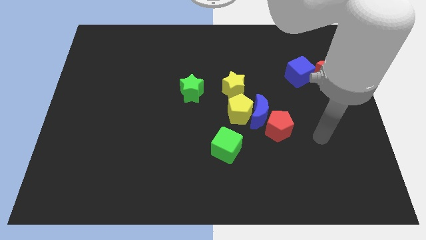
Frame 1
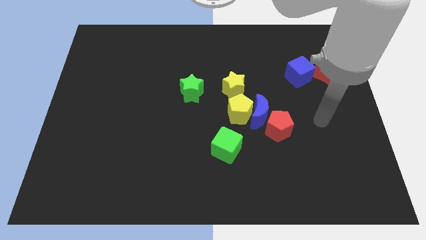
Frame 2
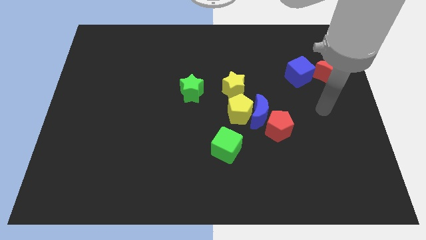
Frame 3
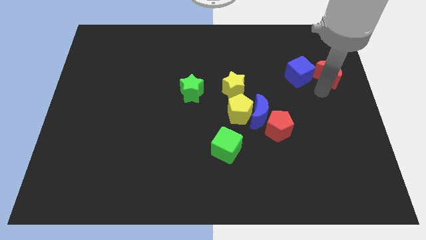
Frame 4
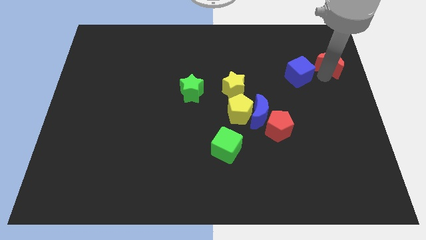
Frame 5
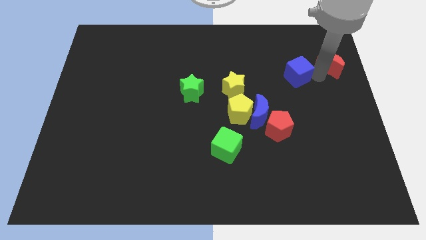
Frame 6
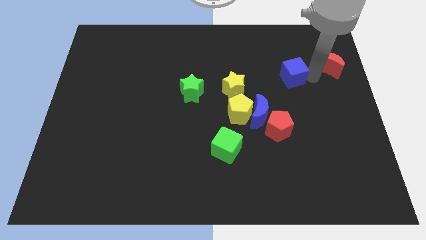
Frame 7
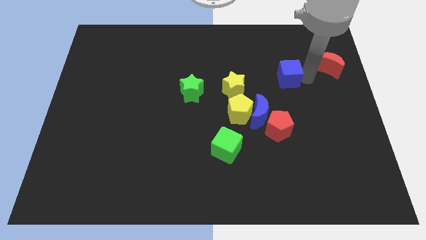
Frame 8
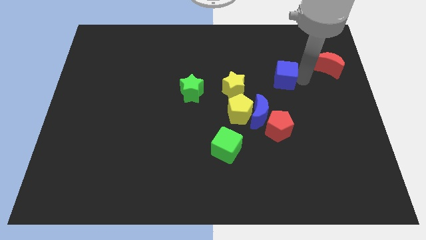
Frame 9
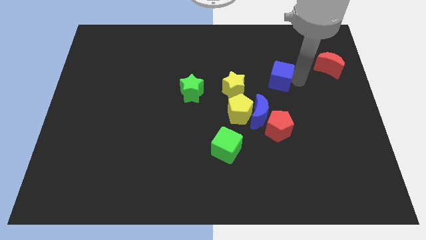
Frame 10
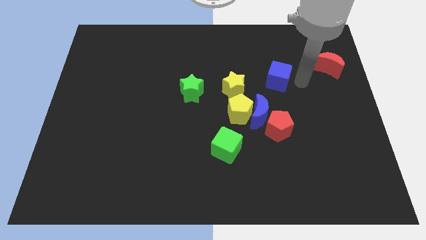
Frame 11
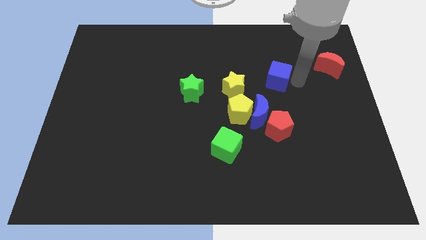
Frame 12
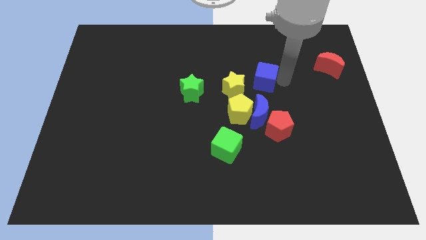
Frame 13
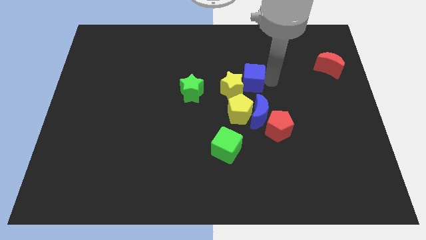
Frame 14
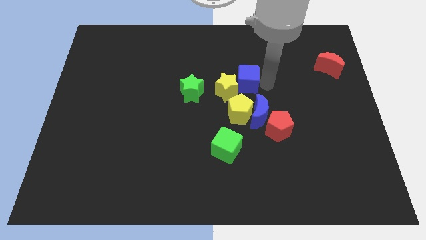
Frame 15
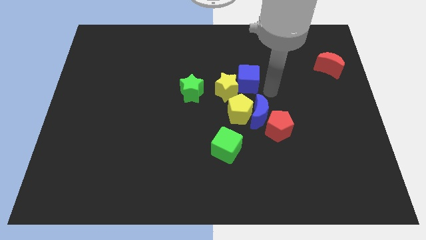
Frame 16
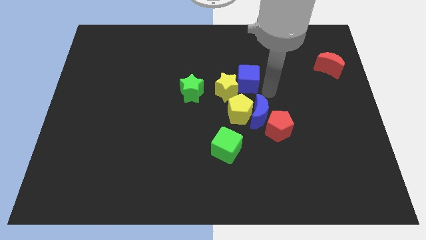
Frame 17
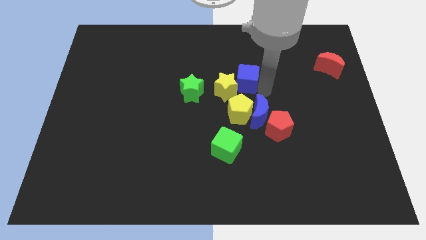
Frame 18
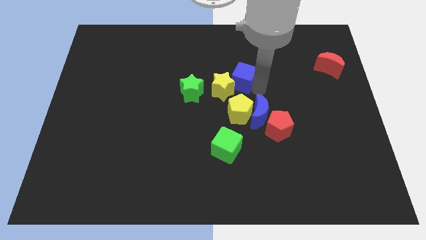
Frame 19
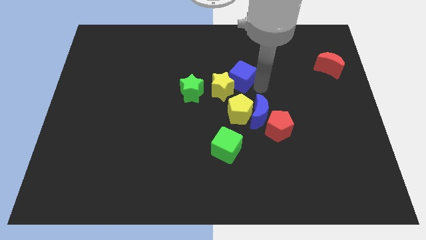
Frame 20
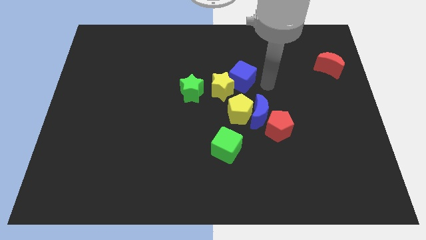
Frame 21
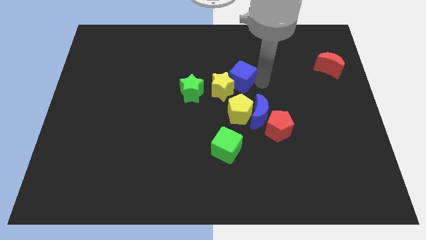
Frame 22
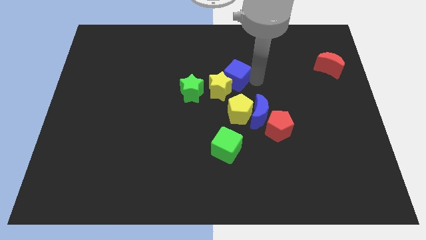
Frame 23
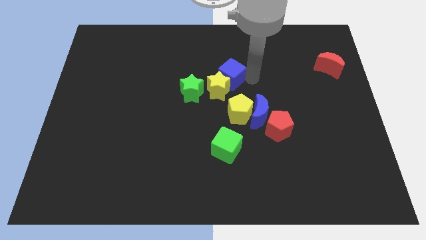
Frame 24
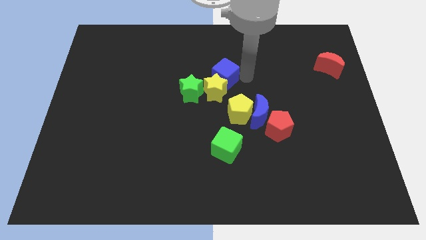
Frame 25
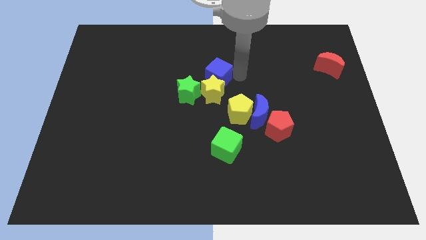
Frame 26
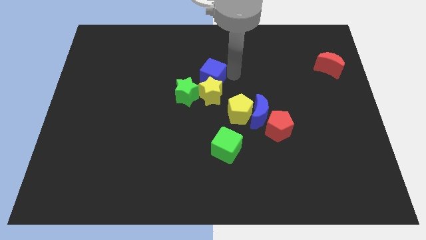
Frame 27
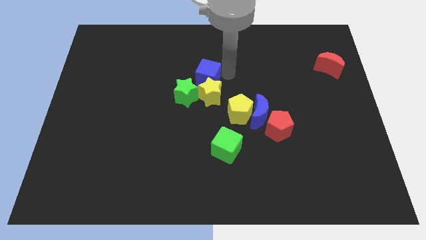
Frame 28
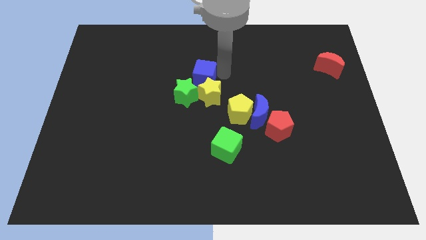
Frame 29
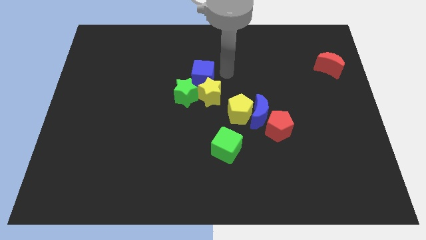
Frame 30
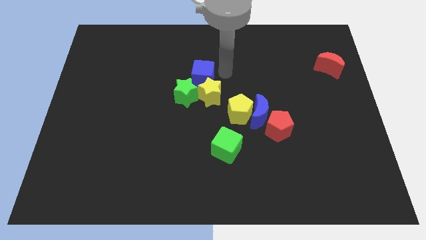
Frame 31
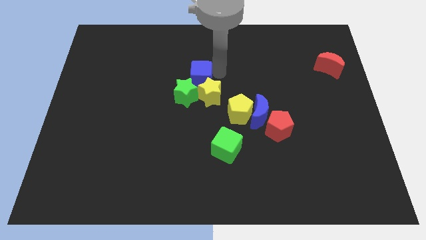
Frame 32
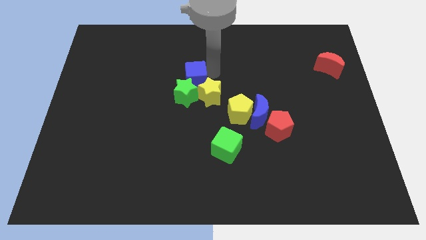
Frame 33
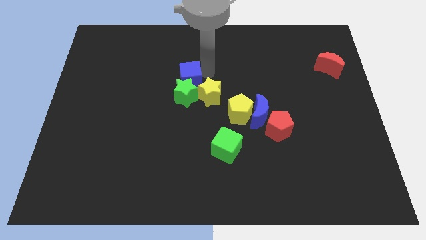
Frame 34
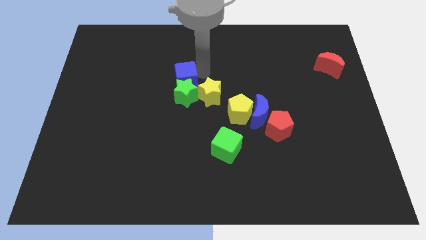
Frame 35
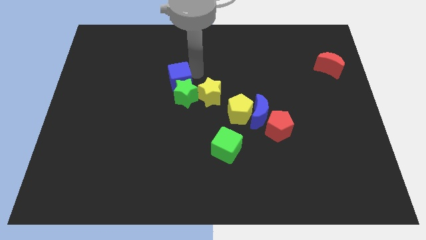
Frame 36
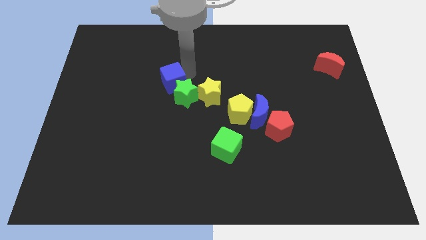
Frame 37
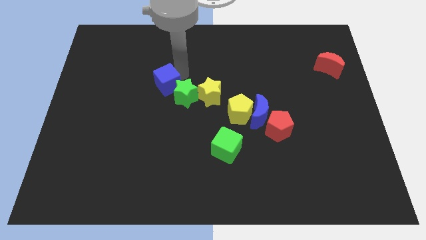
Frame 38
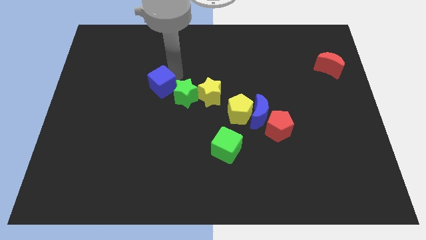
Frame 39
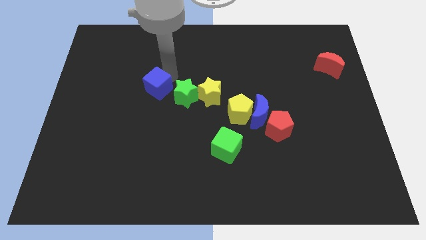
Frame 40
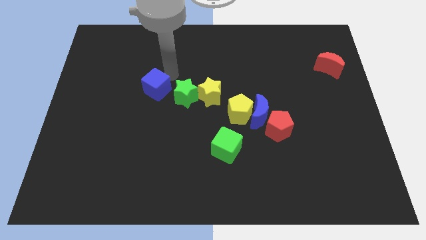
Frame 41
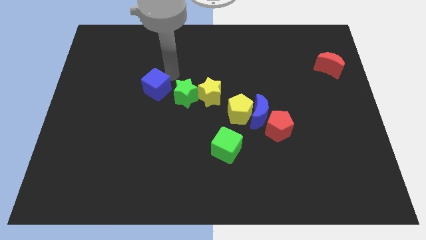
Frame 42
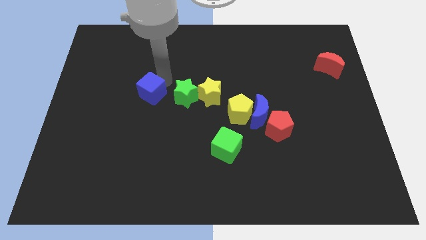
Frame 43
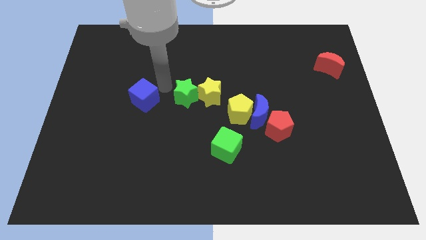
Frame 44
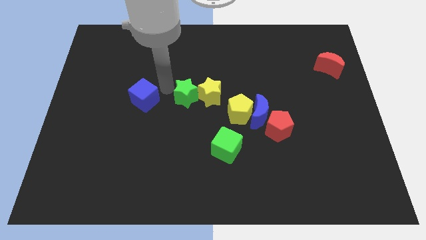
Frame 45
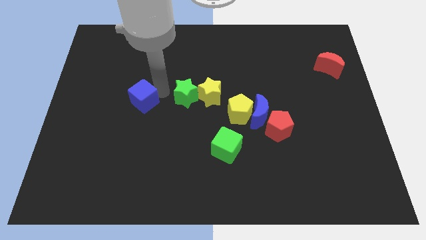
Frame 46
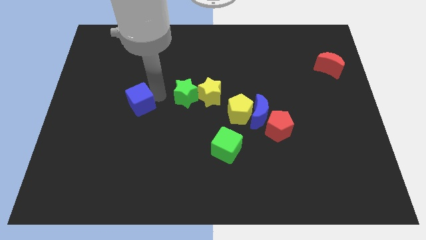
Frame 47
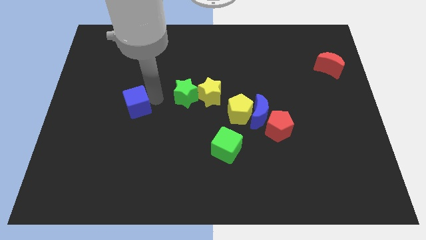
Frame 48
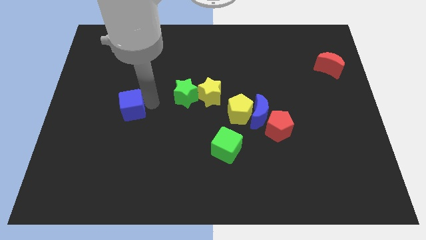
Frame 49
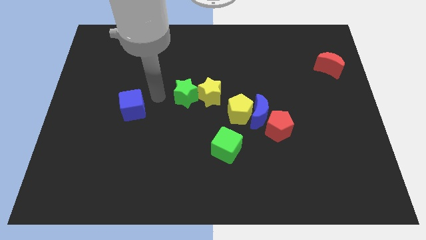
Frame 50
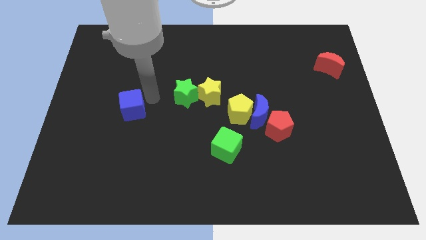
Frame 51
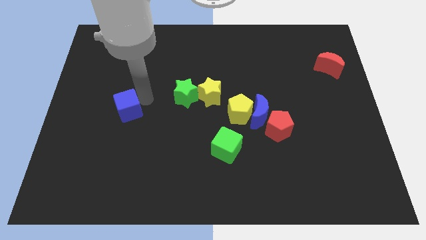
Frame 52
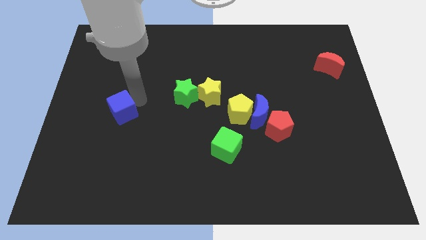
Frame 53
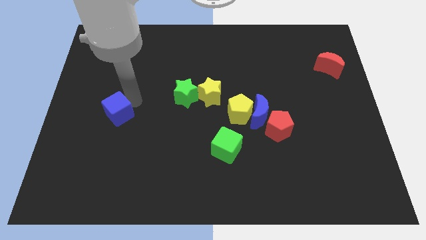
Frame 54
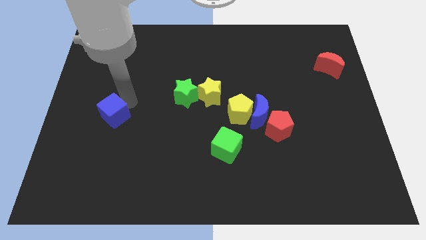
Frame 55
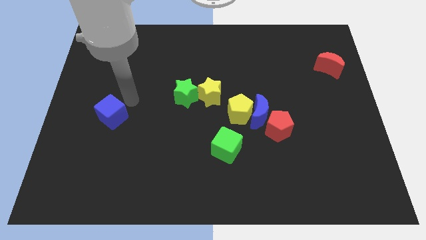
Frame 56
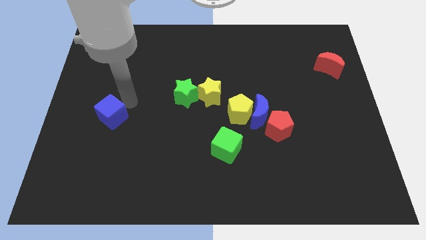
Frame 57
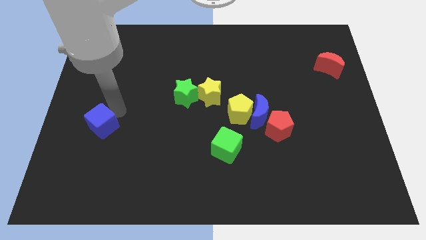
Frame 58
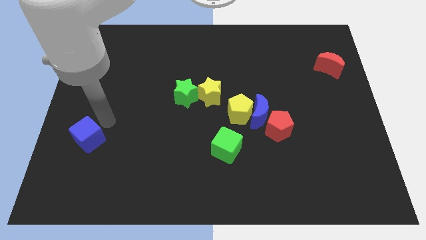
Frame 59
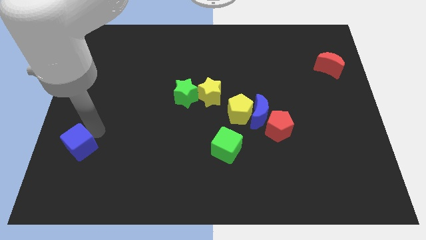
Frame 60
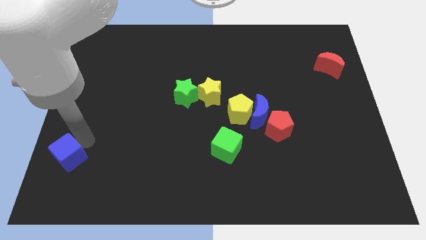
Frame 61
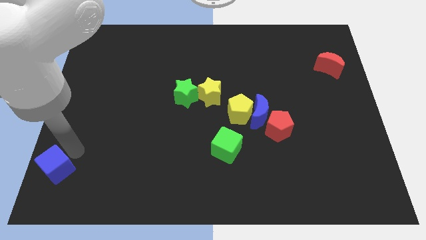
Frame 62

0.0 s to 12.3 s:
move the blue cube to the bottom left
